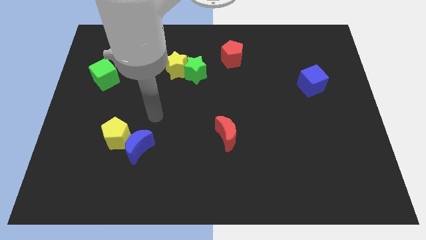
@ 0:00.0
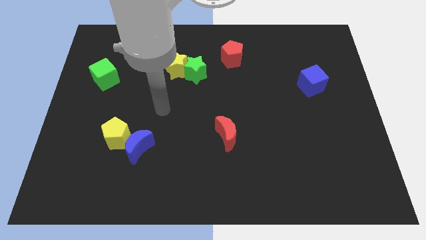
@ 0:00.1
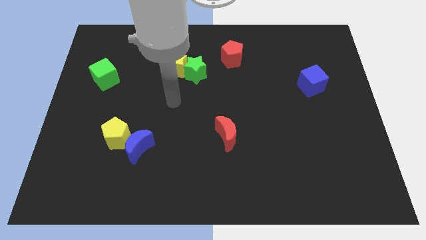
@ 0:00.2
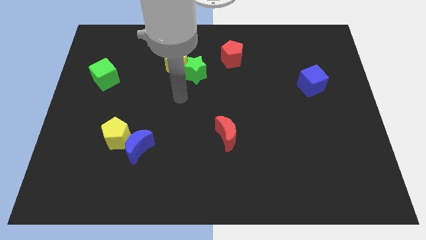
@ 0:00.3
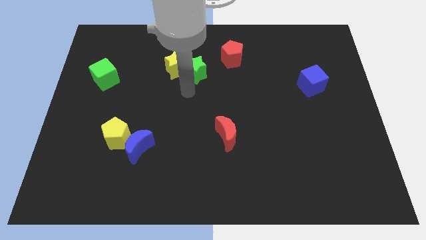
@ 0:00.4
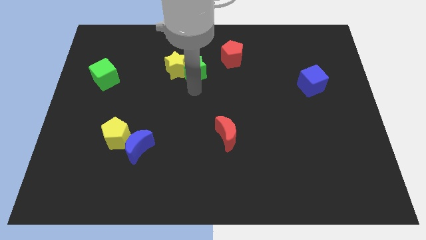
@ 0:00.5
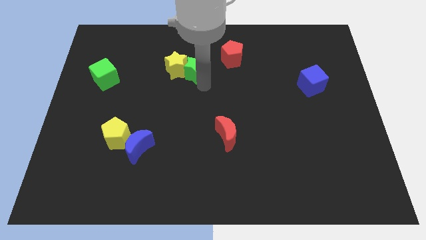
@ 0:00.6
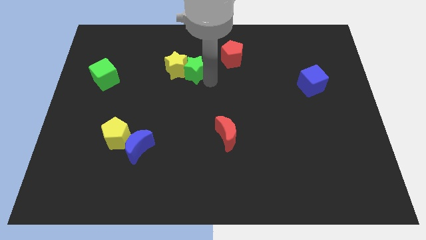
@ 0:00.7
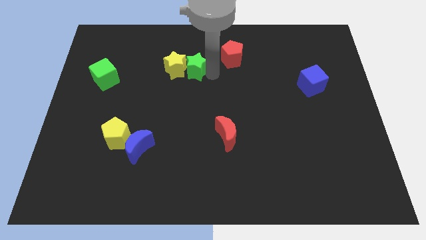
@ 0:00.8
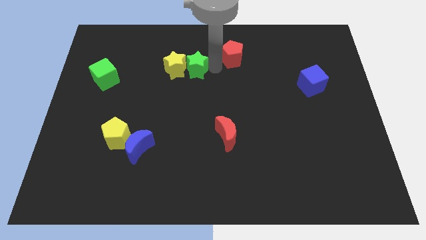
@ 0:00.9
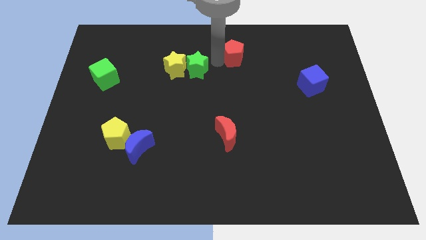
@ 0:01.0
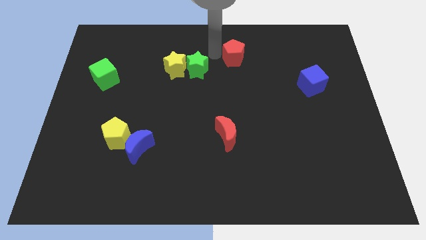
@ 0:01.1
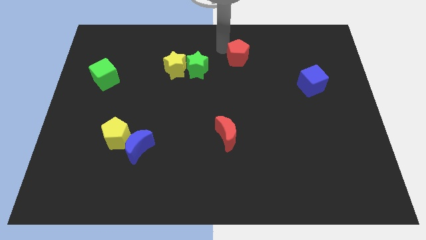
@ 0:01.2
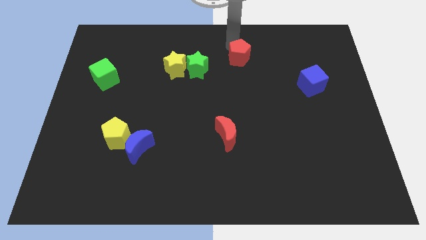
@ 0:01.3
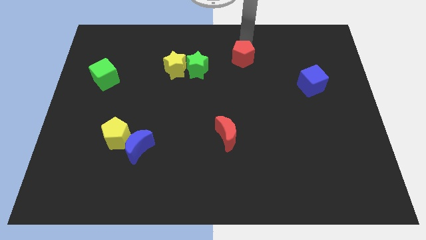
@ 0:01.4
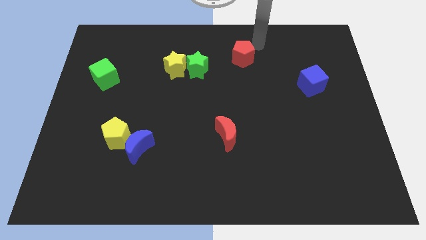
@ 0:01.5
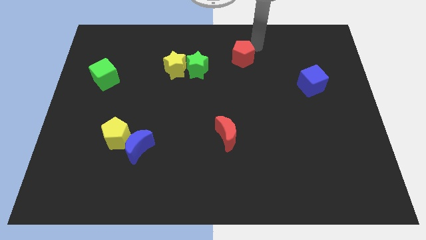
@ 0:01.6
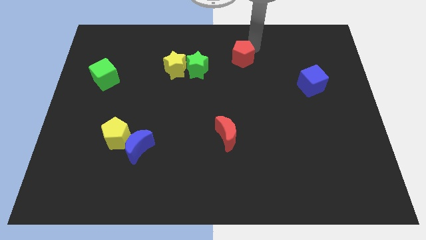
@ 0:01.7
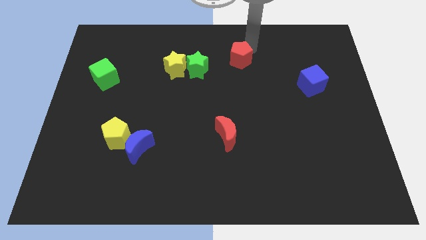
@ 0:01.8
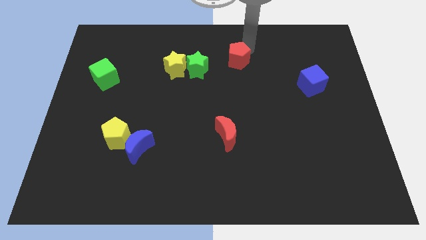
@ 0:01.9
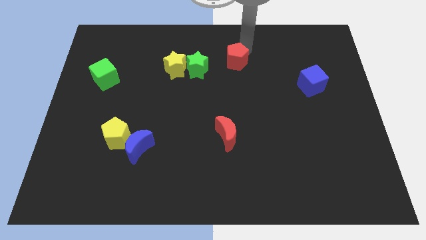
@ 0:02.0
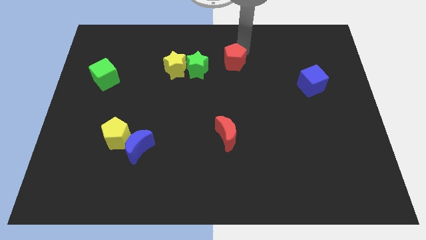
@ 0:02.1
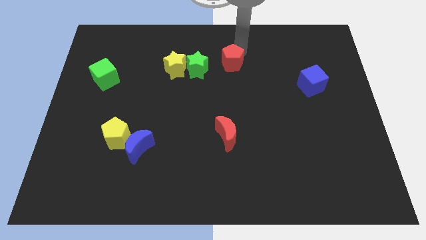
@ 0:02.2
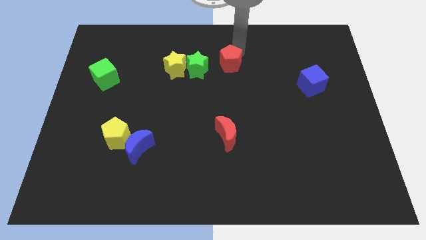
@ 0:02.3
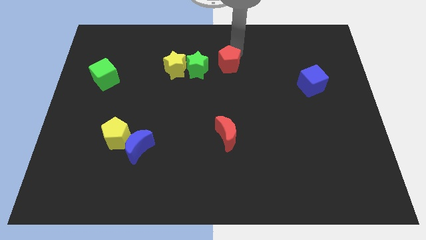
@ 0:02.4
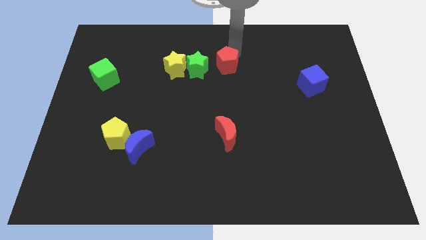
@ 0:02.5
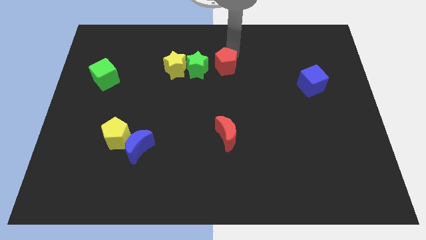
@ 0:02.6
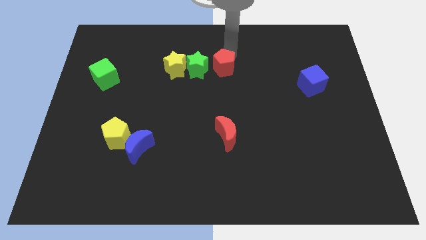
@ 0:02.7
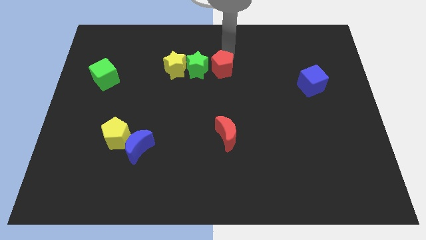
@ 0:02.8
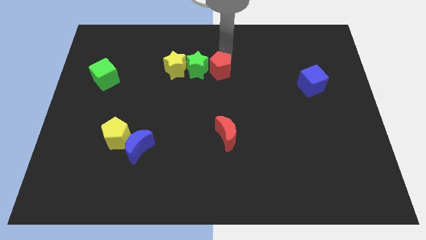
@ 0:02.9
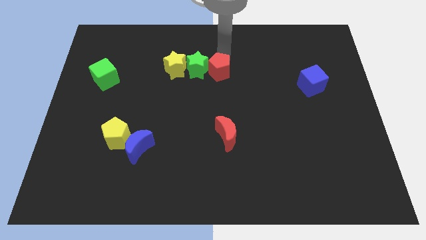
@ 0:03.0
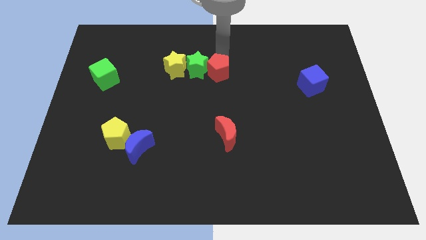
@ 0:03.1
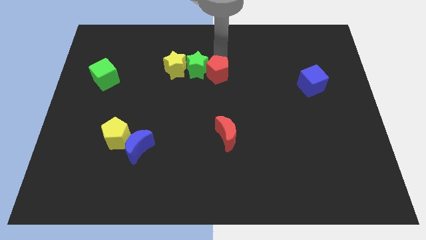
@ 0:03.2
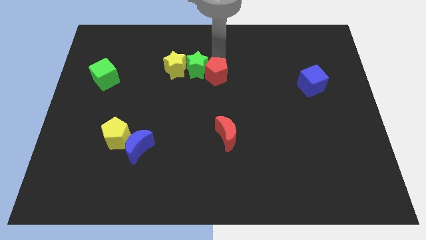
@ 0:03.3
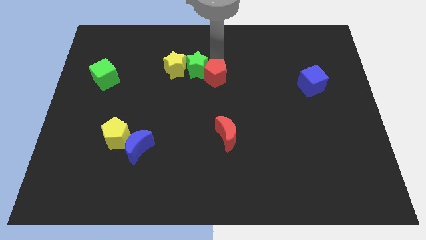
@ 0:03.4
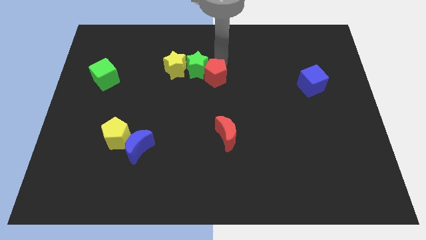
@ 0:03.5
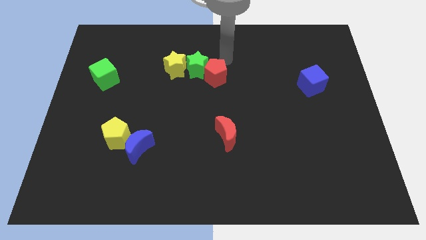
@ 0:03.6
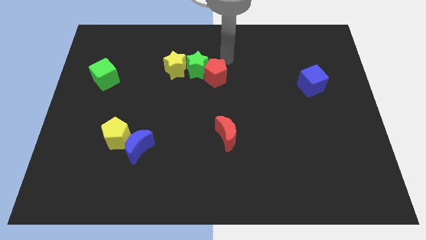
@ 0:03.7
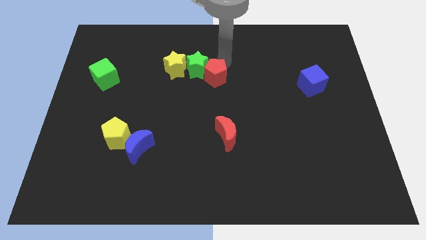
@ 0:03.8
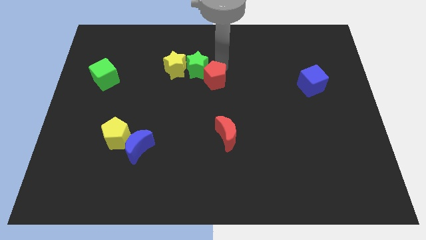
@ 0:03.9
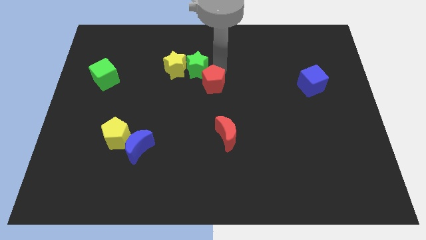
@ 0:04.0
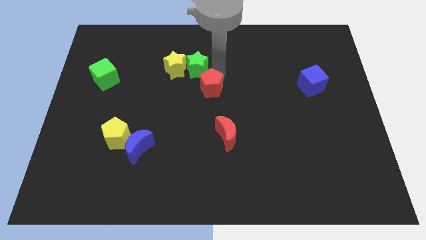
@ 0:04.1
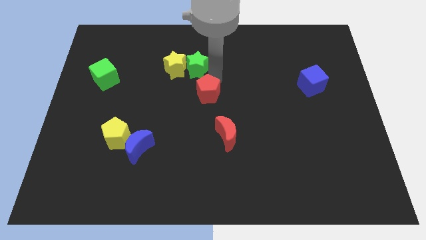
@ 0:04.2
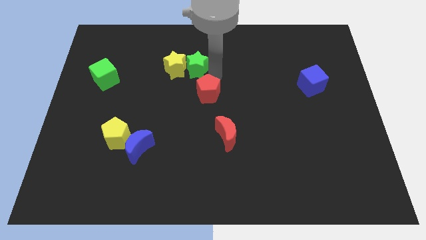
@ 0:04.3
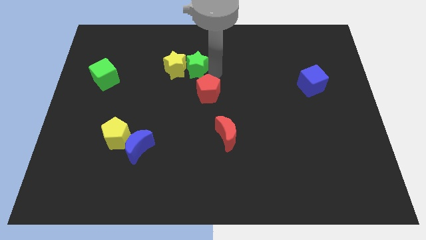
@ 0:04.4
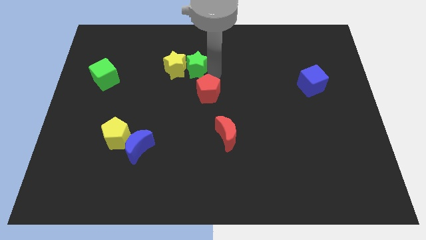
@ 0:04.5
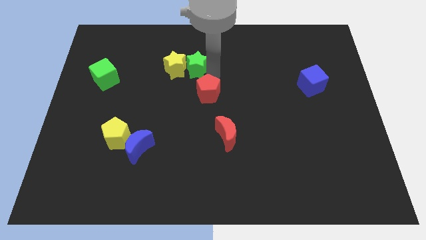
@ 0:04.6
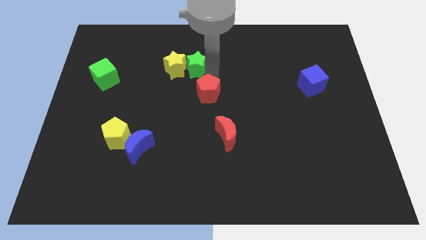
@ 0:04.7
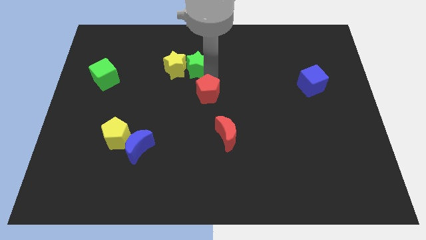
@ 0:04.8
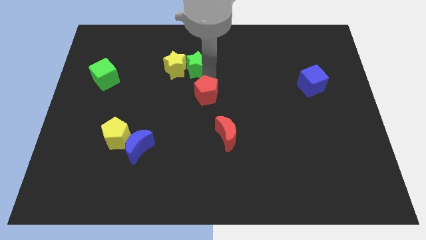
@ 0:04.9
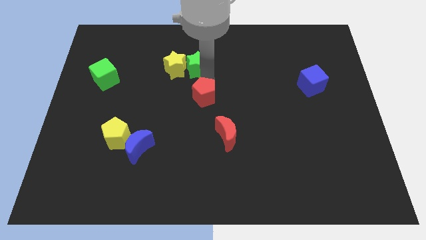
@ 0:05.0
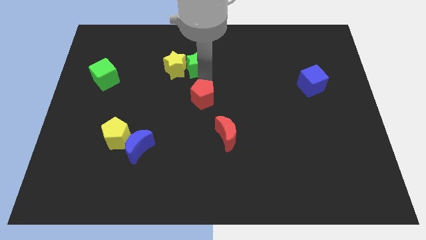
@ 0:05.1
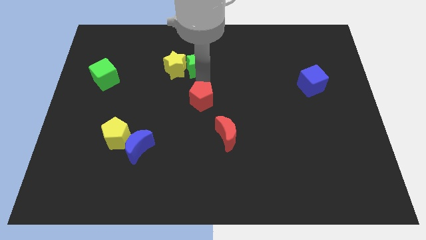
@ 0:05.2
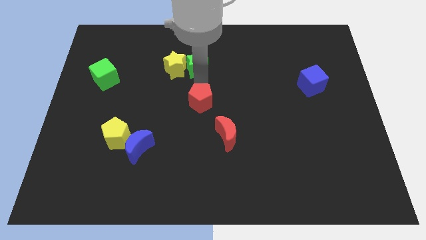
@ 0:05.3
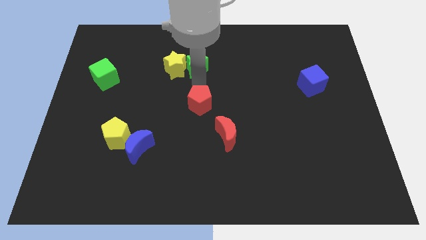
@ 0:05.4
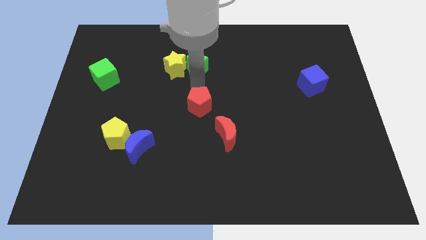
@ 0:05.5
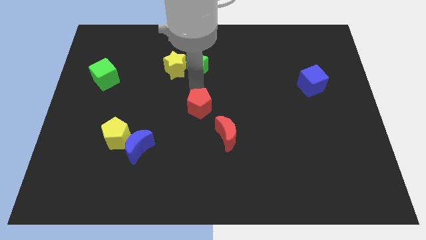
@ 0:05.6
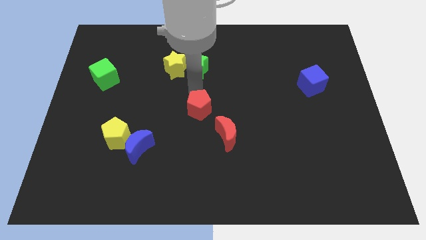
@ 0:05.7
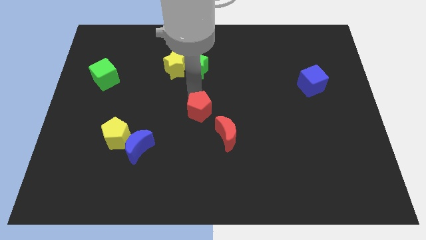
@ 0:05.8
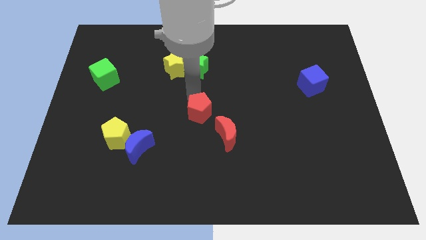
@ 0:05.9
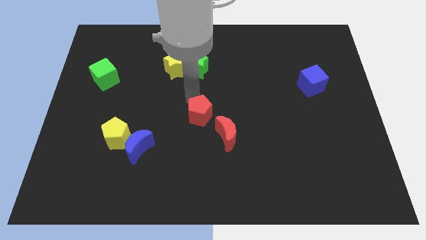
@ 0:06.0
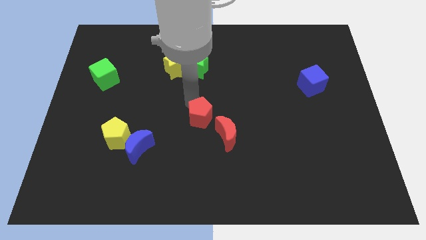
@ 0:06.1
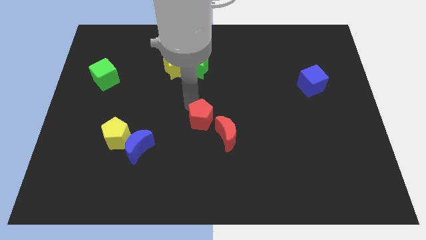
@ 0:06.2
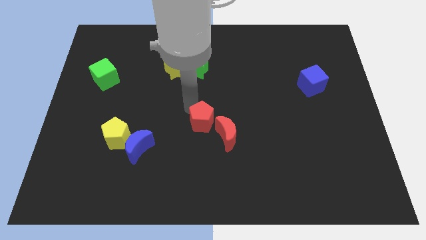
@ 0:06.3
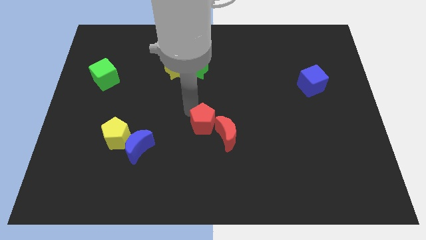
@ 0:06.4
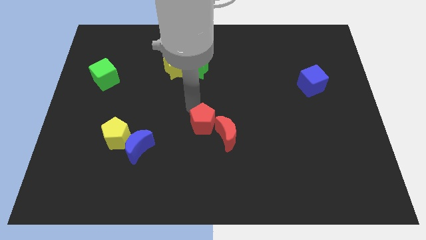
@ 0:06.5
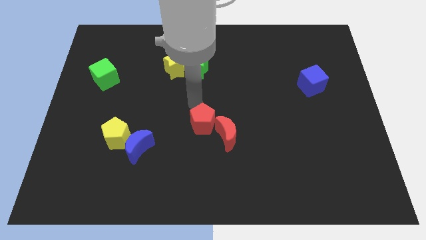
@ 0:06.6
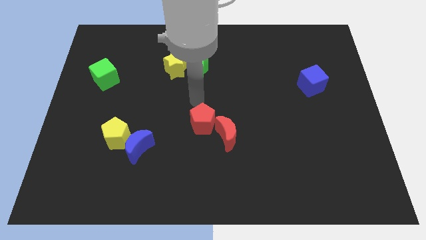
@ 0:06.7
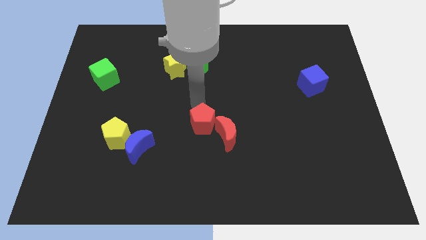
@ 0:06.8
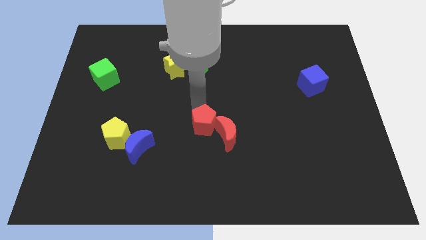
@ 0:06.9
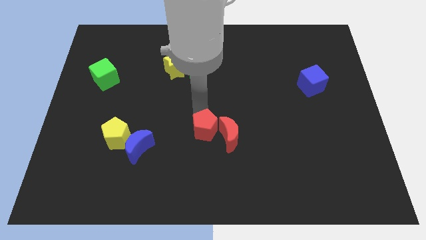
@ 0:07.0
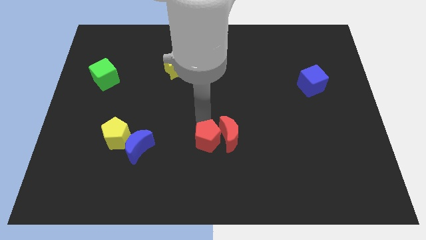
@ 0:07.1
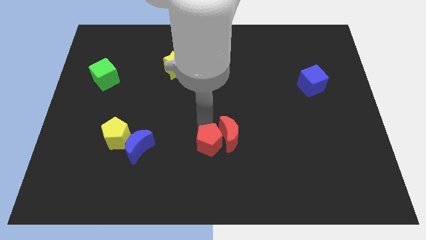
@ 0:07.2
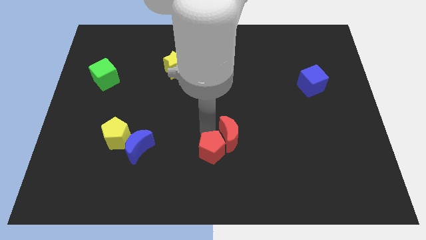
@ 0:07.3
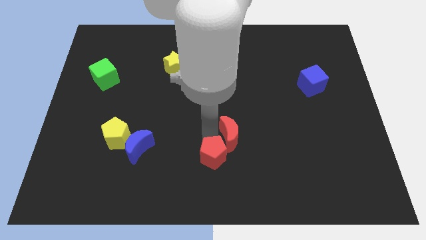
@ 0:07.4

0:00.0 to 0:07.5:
put the red pentagon to the bottom side
